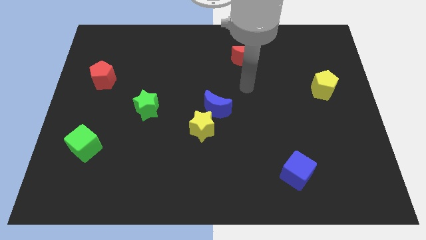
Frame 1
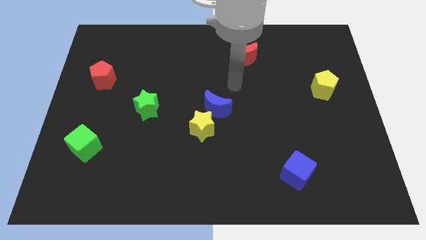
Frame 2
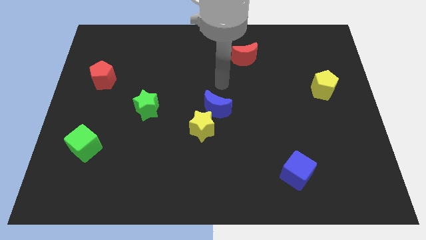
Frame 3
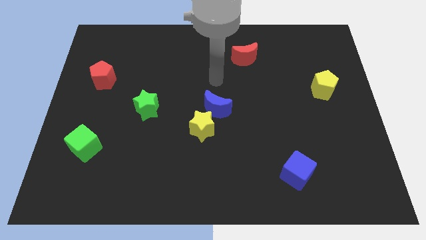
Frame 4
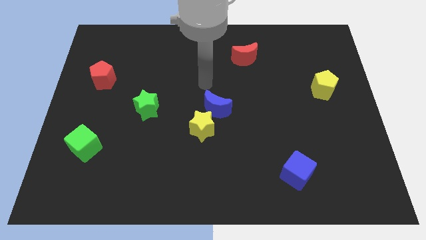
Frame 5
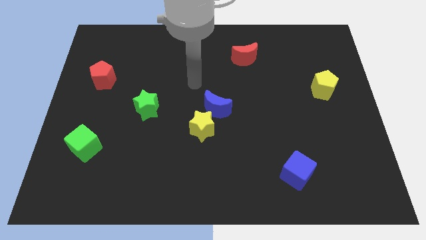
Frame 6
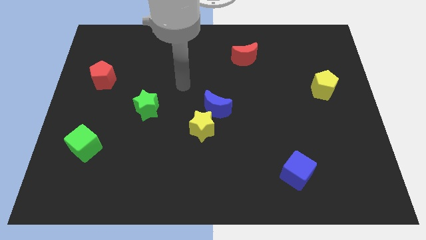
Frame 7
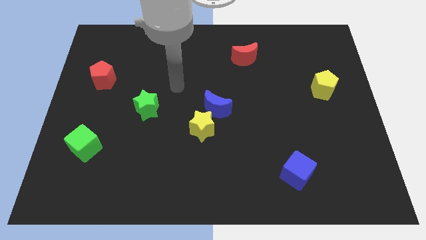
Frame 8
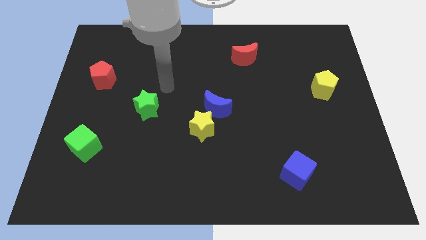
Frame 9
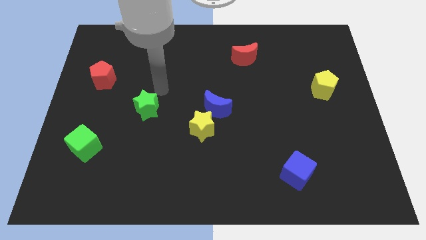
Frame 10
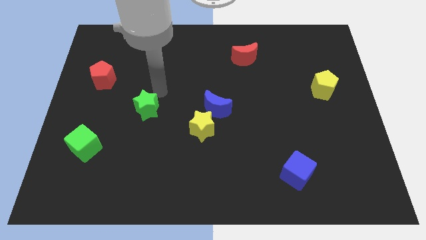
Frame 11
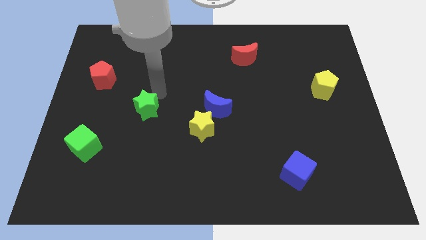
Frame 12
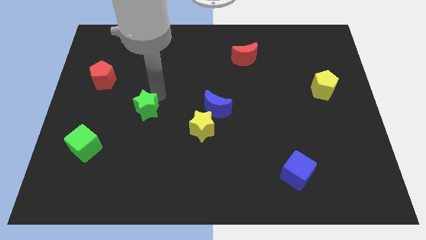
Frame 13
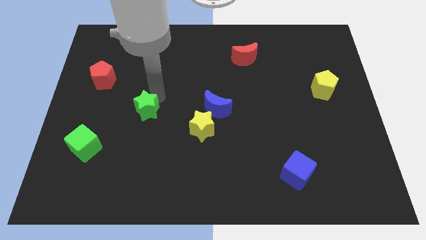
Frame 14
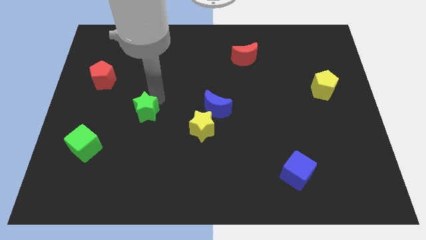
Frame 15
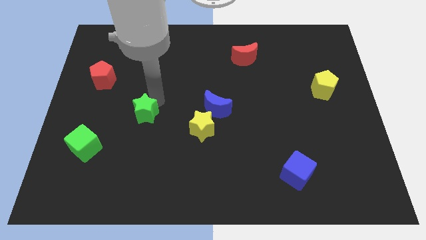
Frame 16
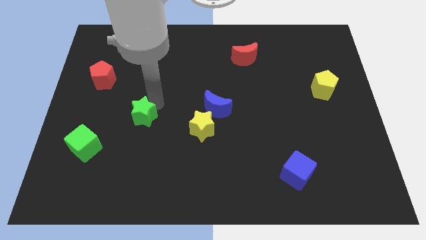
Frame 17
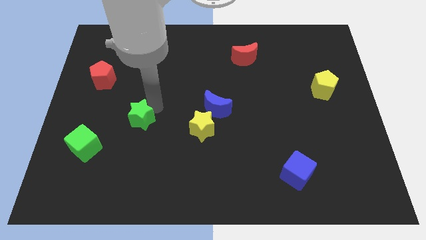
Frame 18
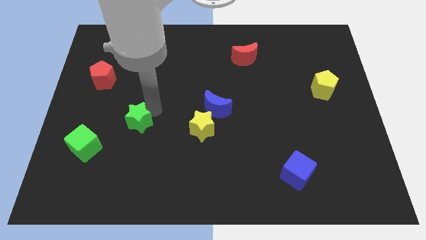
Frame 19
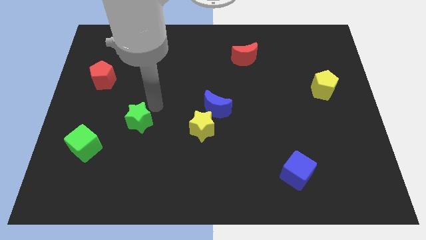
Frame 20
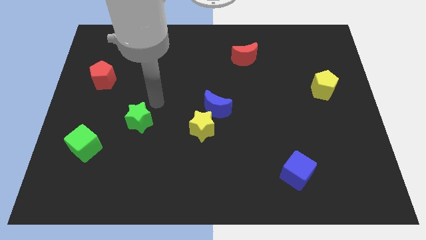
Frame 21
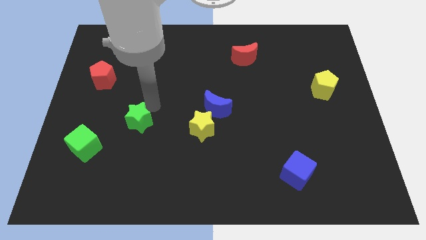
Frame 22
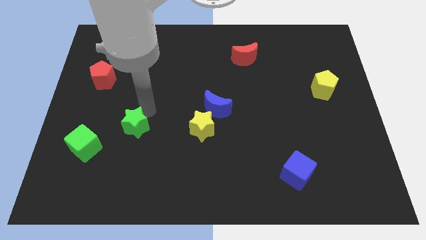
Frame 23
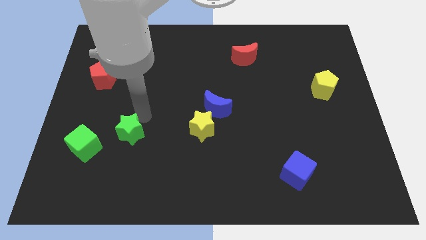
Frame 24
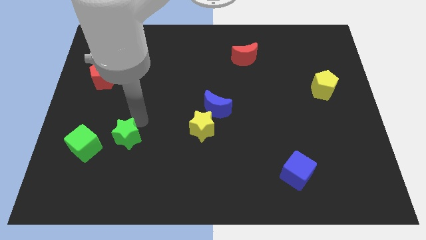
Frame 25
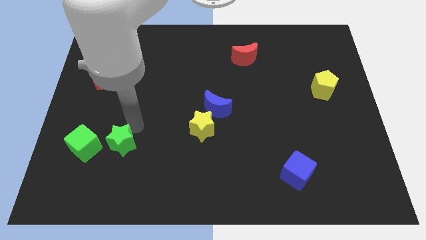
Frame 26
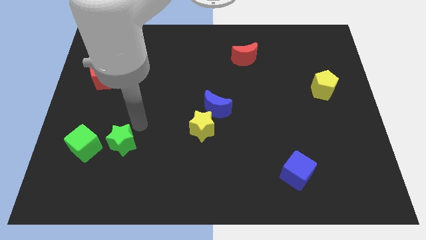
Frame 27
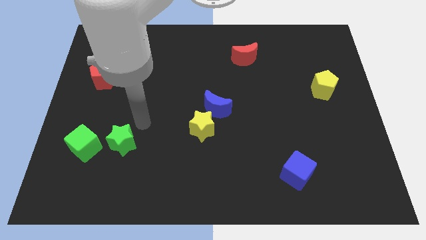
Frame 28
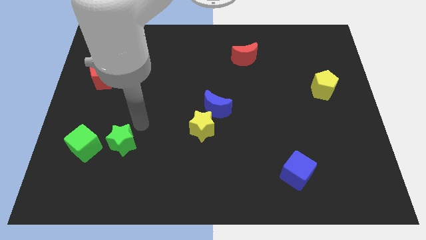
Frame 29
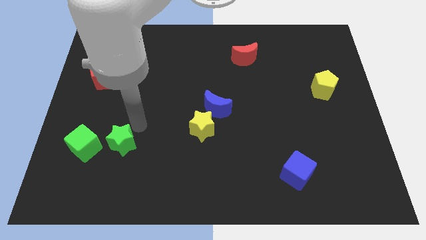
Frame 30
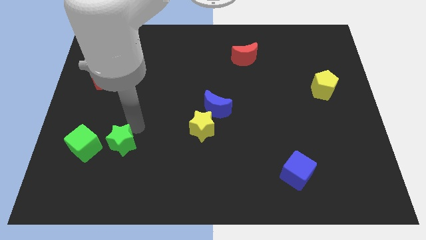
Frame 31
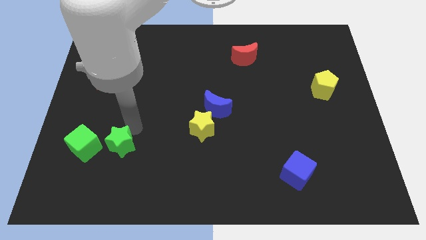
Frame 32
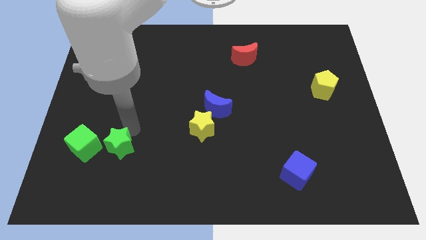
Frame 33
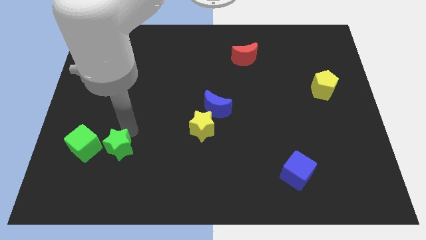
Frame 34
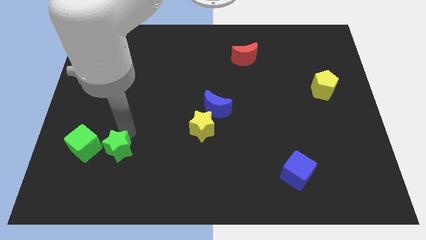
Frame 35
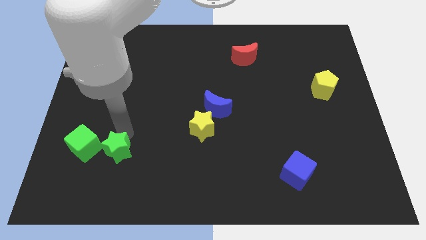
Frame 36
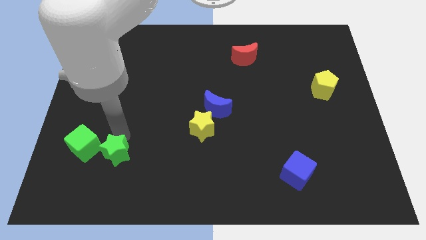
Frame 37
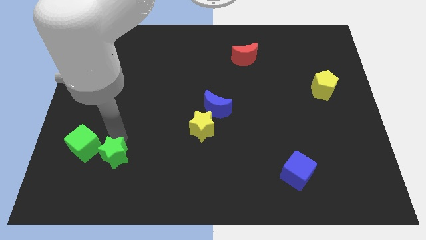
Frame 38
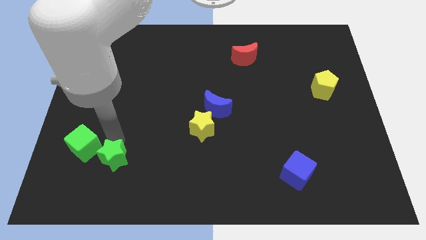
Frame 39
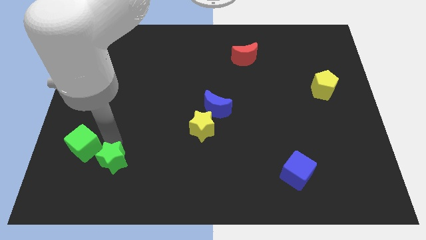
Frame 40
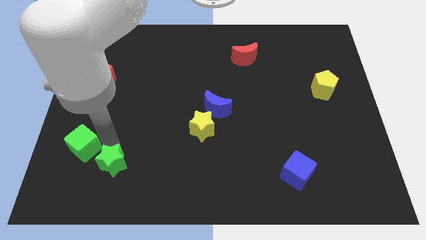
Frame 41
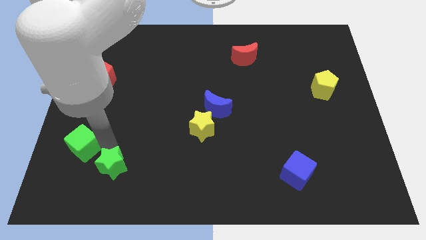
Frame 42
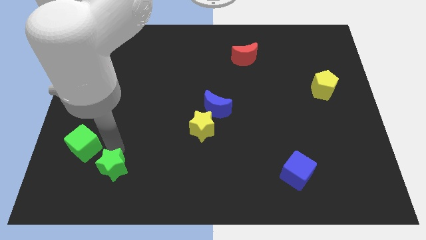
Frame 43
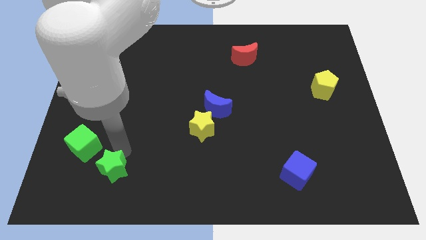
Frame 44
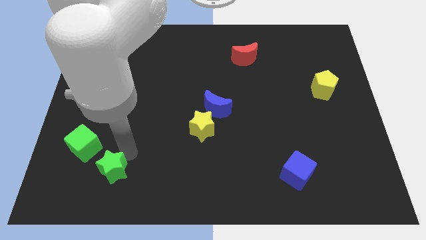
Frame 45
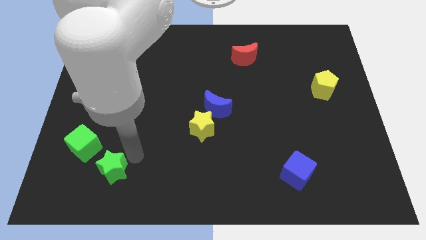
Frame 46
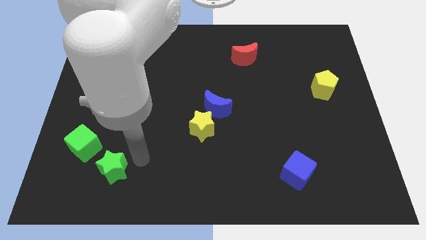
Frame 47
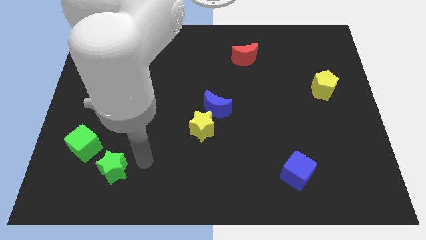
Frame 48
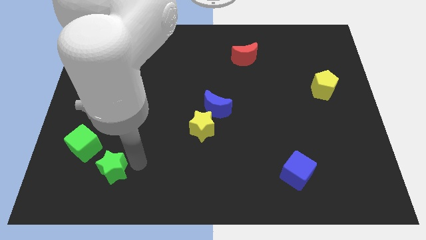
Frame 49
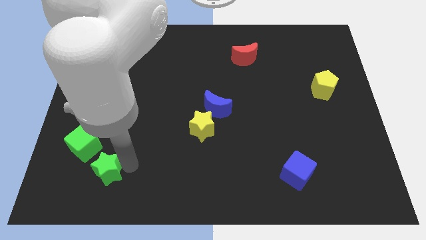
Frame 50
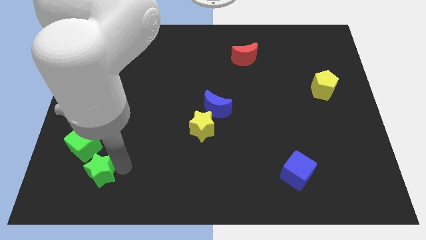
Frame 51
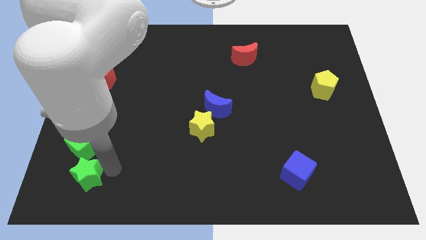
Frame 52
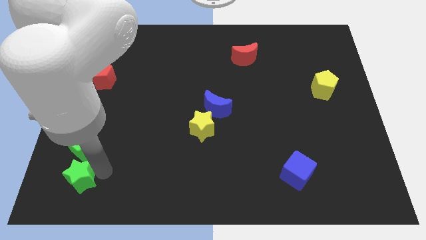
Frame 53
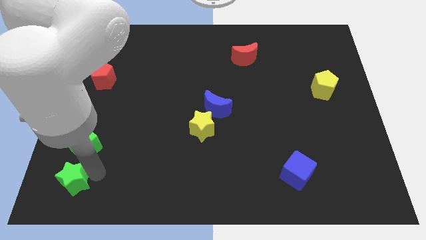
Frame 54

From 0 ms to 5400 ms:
slide the green star to the bottom left of the board
